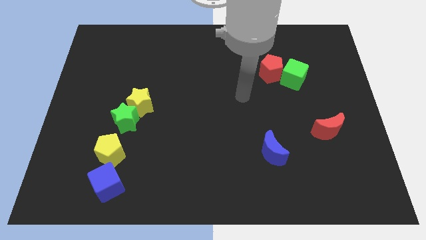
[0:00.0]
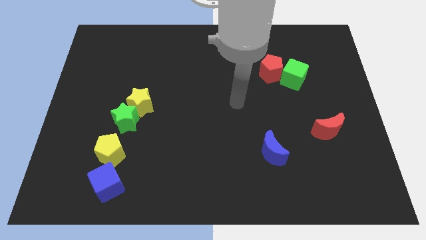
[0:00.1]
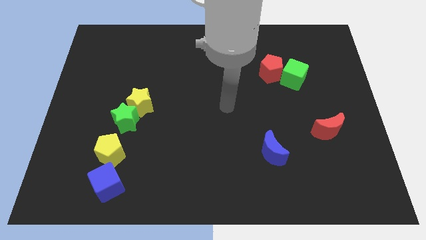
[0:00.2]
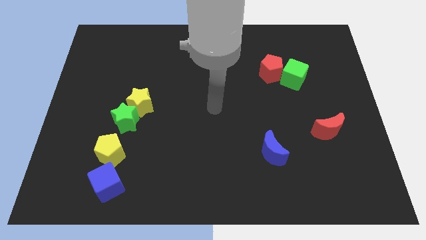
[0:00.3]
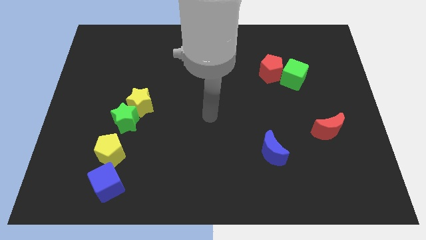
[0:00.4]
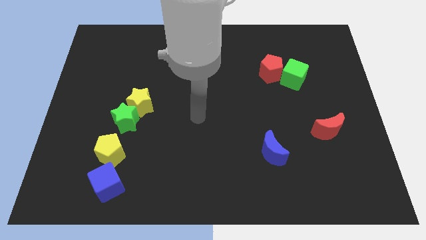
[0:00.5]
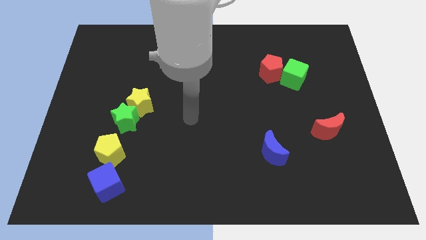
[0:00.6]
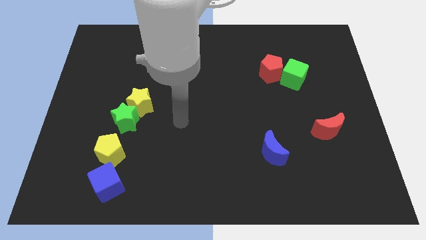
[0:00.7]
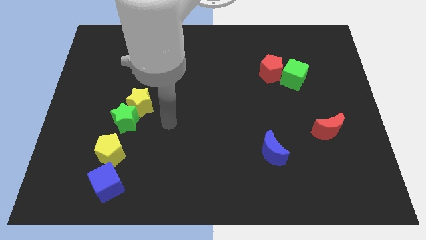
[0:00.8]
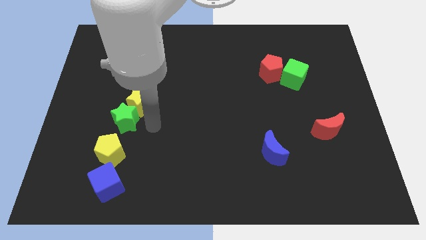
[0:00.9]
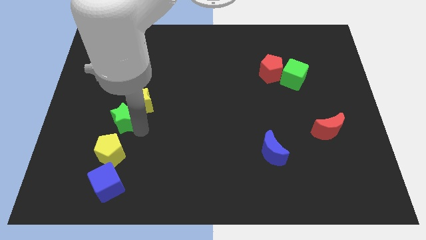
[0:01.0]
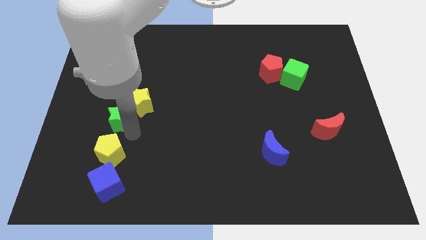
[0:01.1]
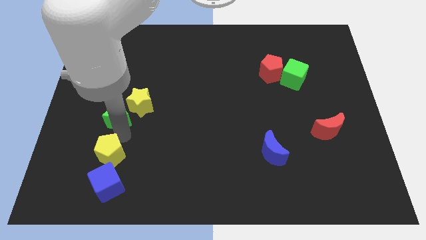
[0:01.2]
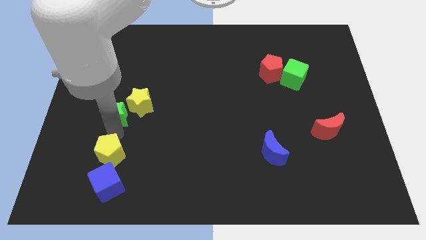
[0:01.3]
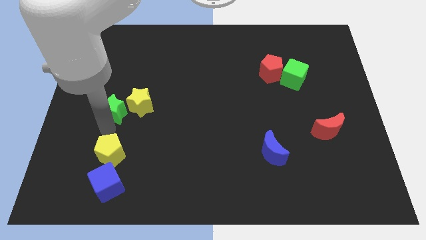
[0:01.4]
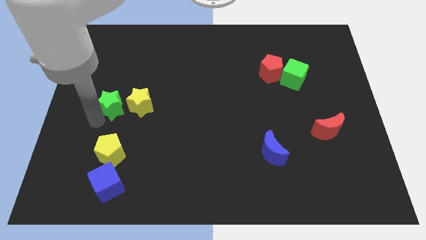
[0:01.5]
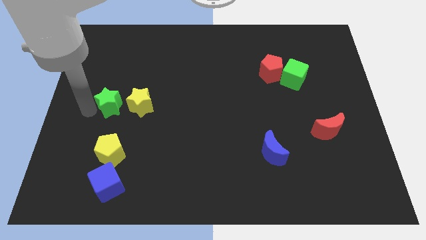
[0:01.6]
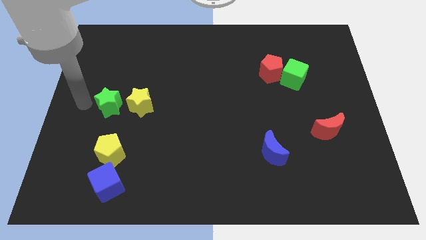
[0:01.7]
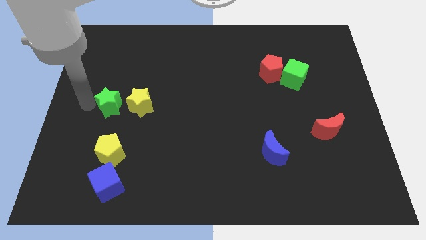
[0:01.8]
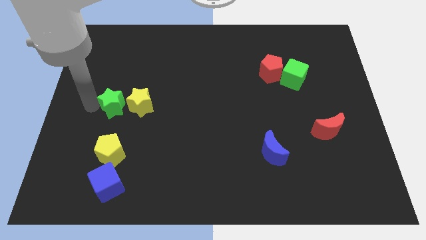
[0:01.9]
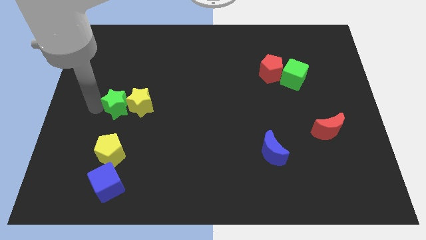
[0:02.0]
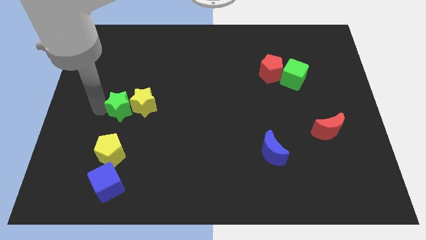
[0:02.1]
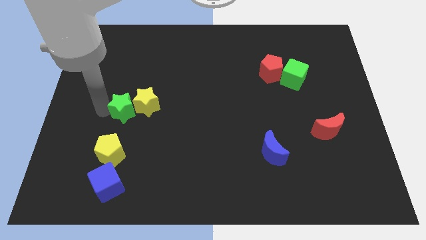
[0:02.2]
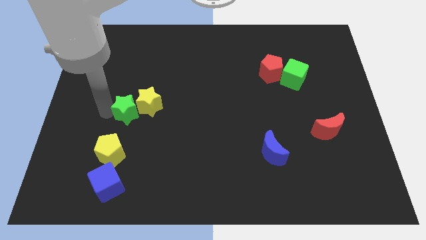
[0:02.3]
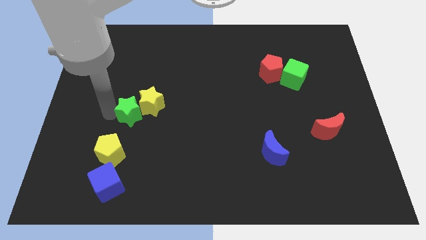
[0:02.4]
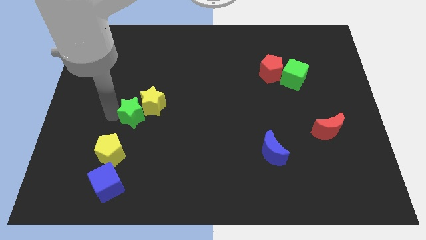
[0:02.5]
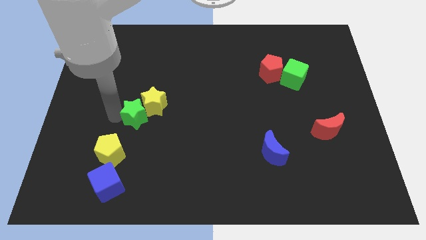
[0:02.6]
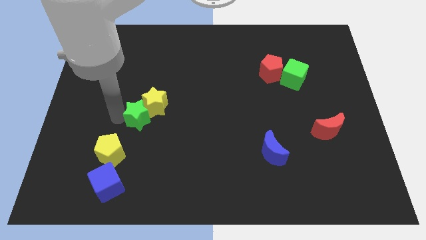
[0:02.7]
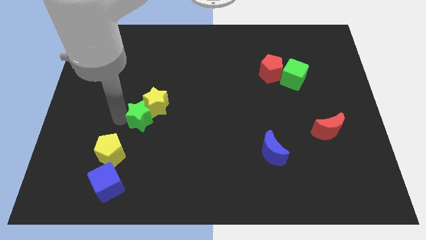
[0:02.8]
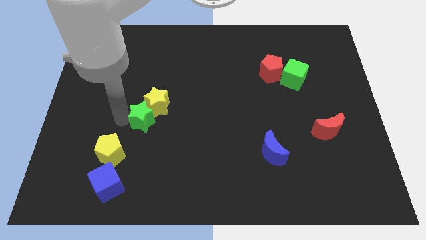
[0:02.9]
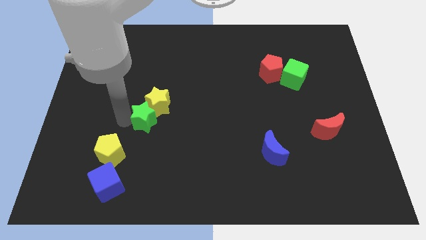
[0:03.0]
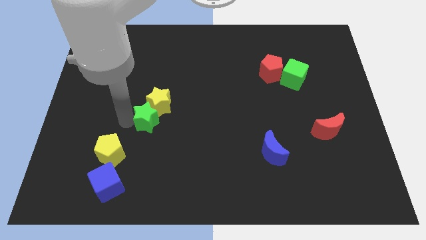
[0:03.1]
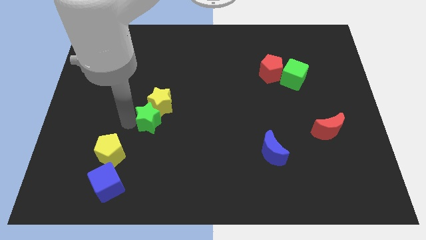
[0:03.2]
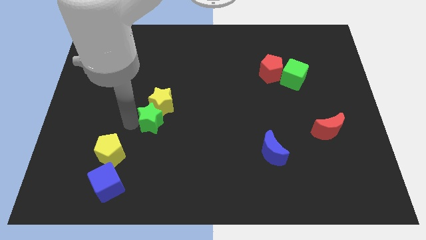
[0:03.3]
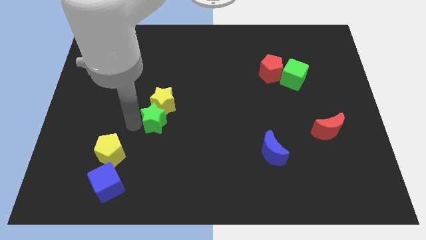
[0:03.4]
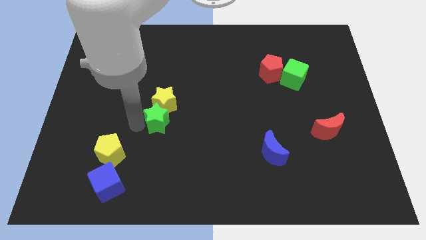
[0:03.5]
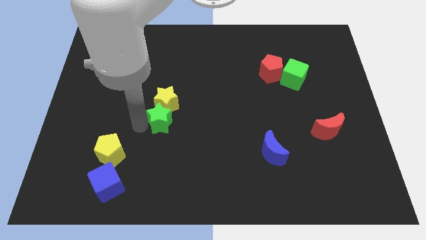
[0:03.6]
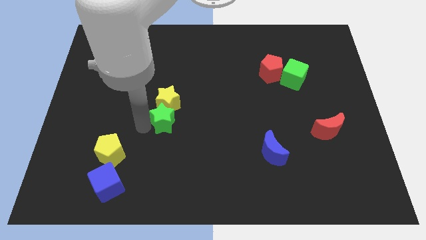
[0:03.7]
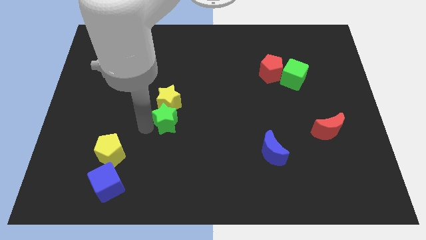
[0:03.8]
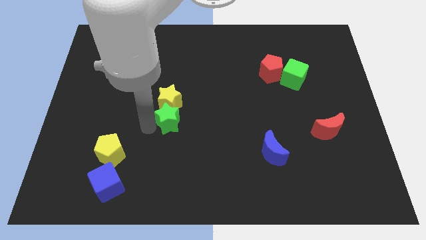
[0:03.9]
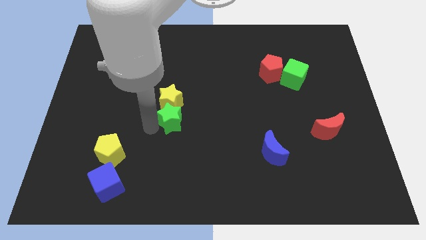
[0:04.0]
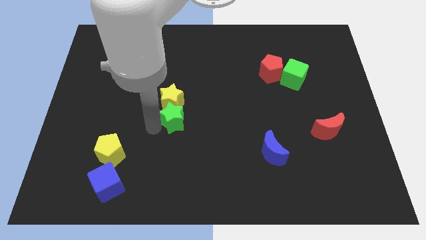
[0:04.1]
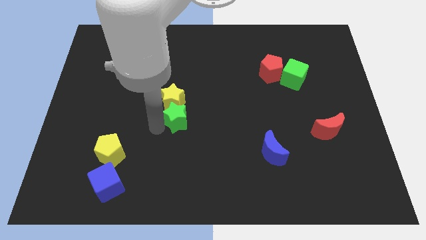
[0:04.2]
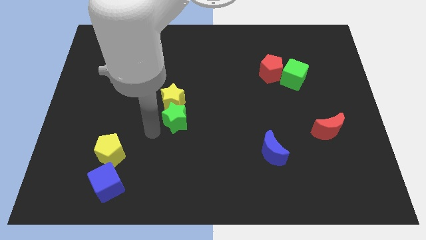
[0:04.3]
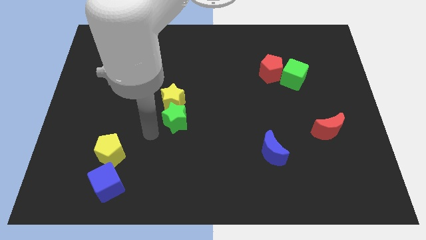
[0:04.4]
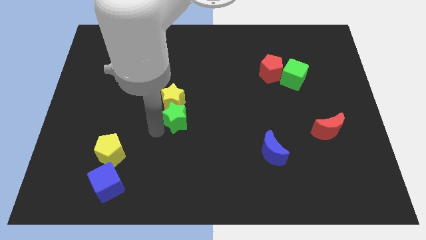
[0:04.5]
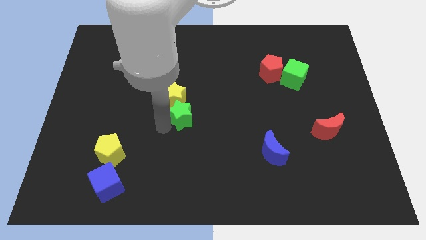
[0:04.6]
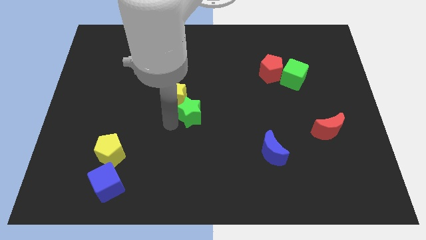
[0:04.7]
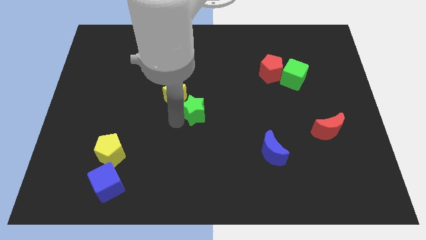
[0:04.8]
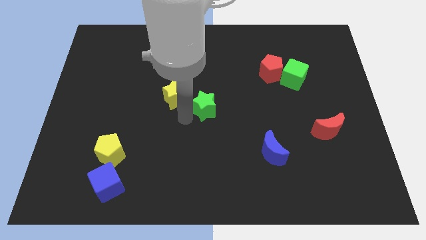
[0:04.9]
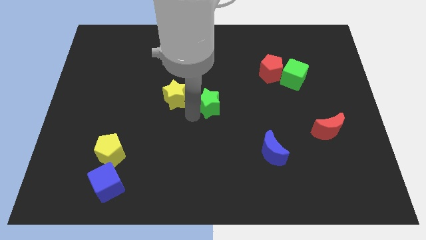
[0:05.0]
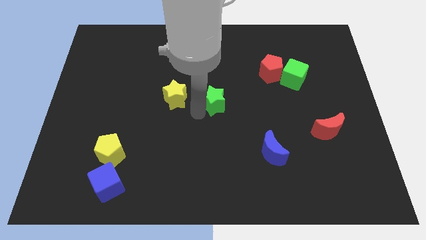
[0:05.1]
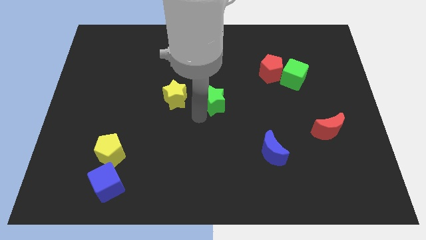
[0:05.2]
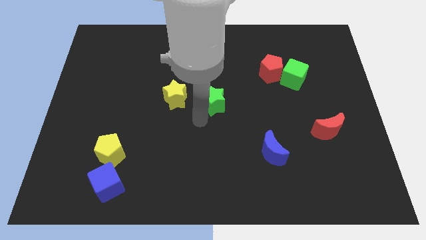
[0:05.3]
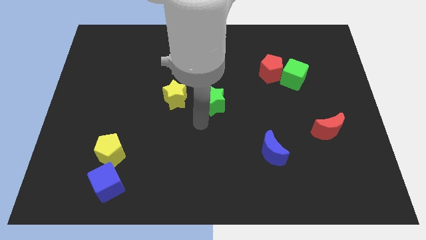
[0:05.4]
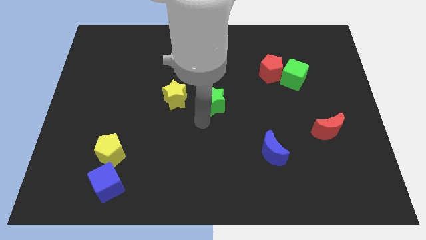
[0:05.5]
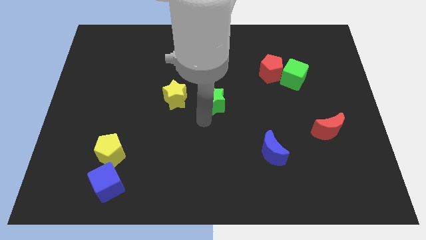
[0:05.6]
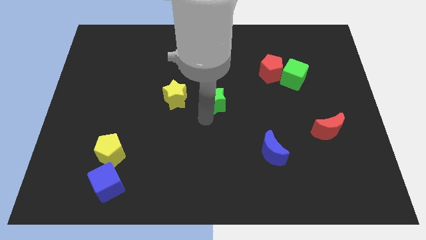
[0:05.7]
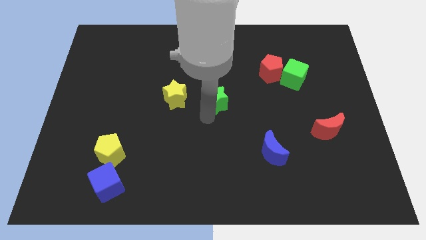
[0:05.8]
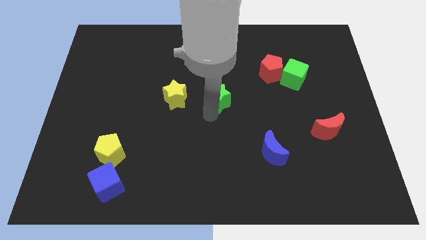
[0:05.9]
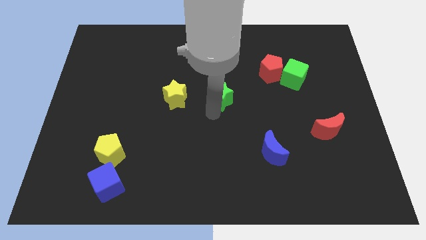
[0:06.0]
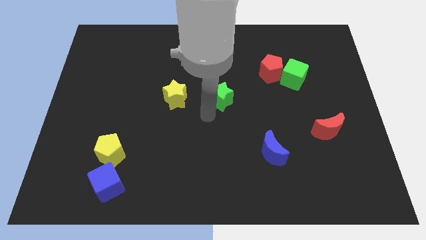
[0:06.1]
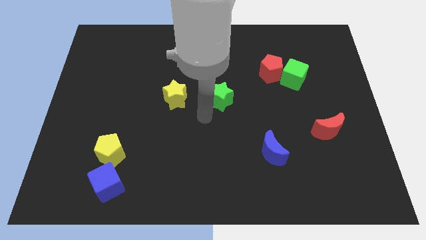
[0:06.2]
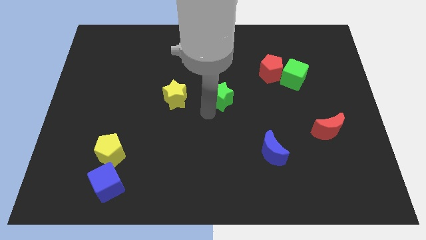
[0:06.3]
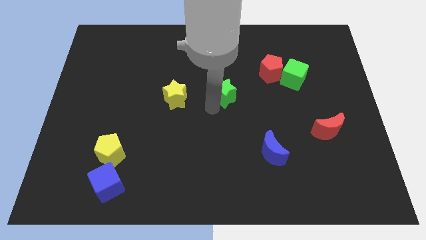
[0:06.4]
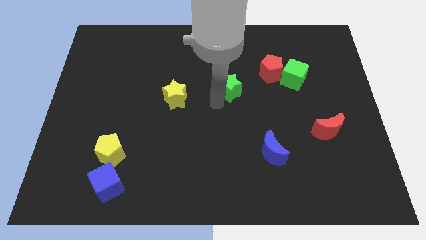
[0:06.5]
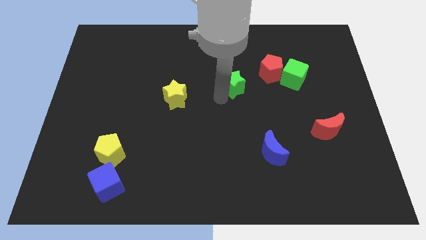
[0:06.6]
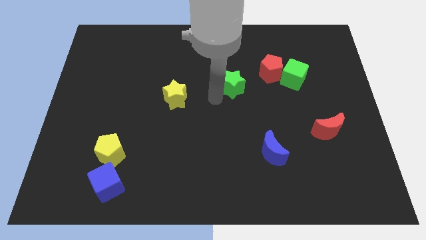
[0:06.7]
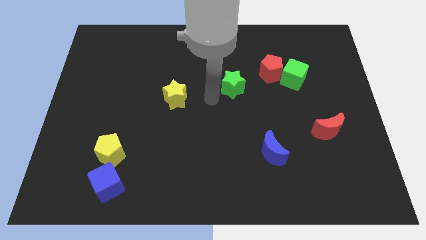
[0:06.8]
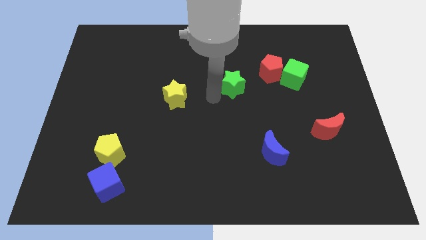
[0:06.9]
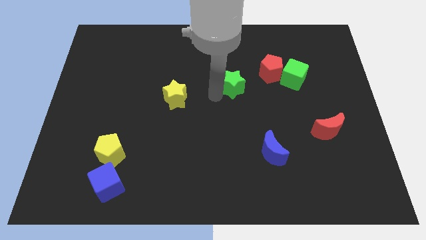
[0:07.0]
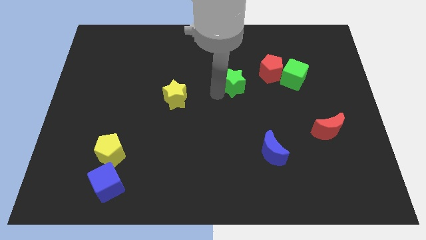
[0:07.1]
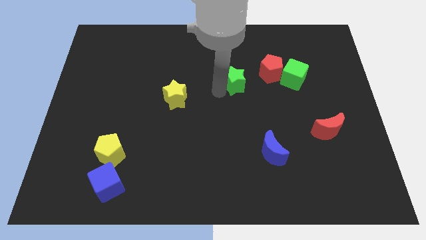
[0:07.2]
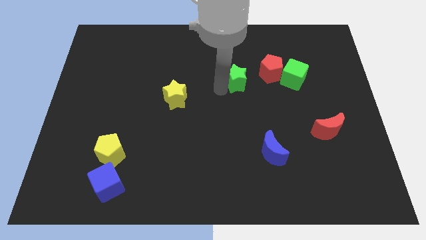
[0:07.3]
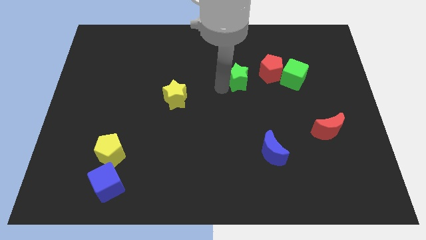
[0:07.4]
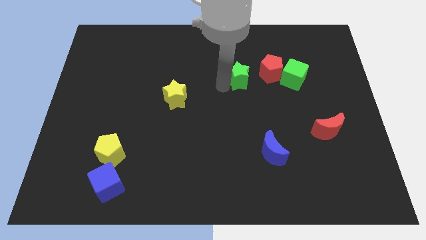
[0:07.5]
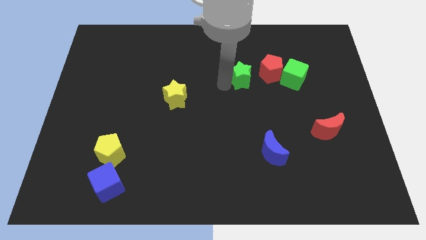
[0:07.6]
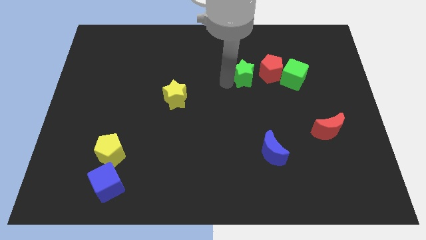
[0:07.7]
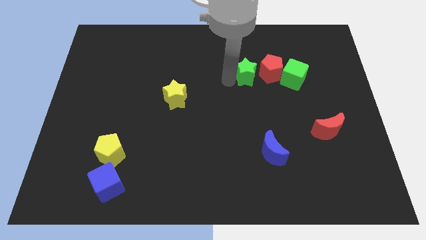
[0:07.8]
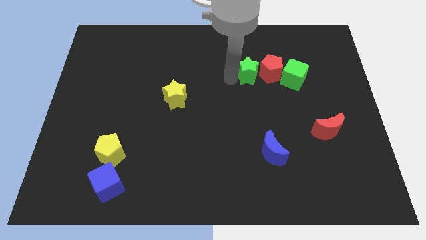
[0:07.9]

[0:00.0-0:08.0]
push the green star next to the red pentagon
